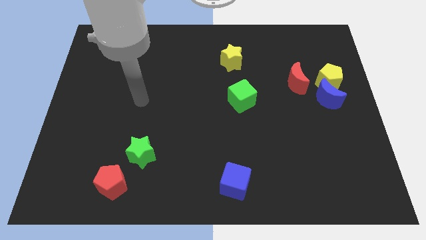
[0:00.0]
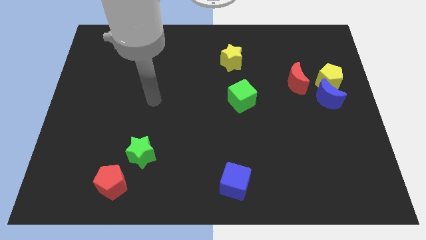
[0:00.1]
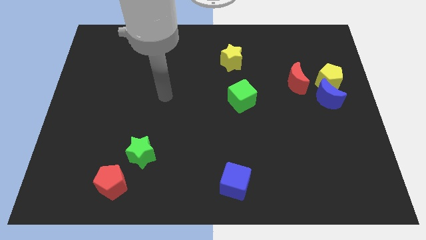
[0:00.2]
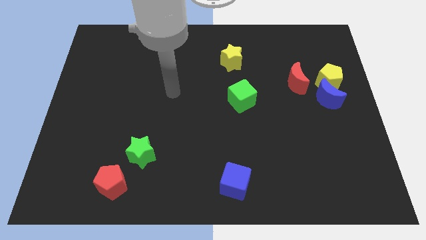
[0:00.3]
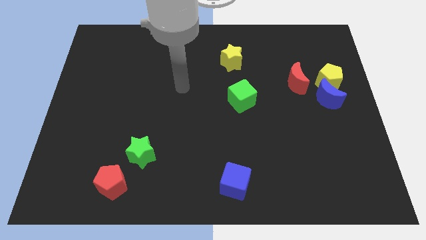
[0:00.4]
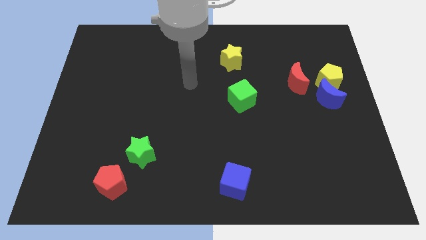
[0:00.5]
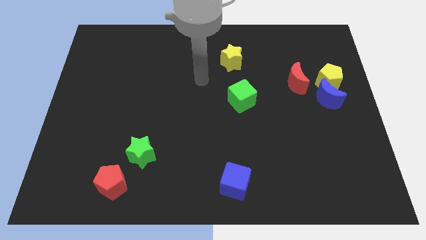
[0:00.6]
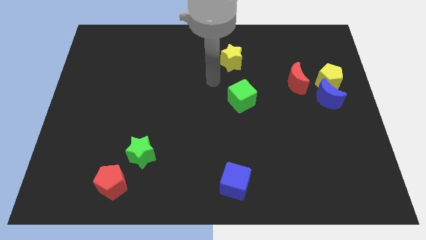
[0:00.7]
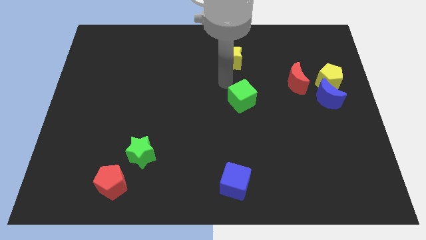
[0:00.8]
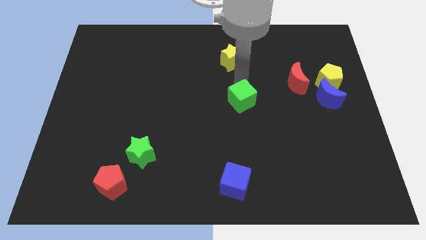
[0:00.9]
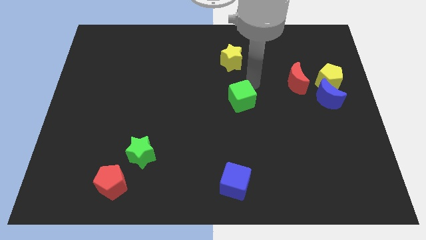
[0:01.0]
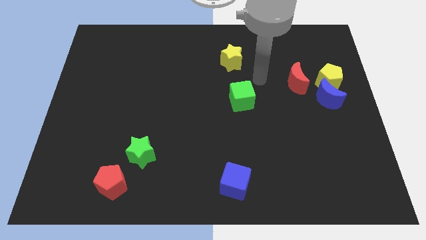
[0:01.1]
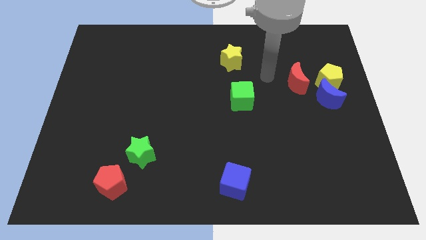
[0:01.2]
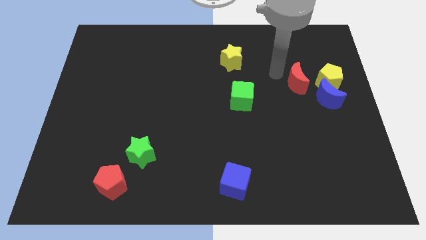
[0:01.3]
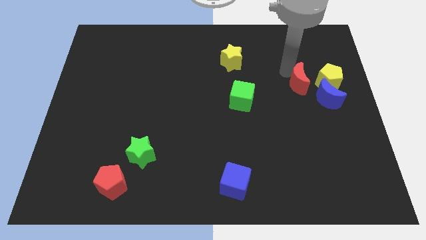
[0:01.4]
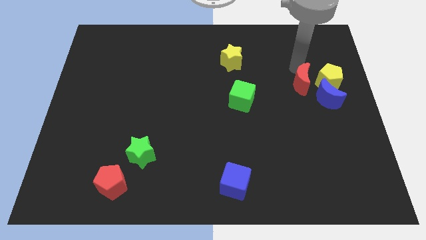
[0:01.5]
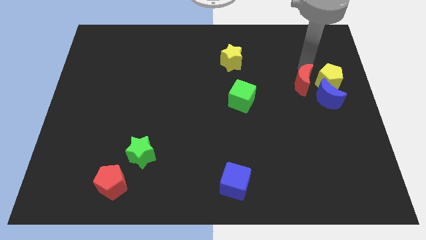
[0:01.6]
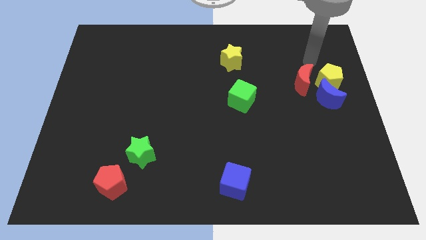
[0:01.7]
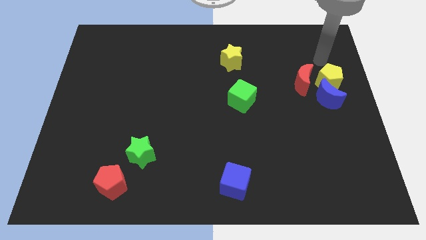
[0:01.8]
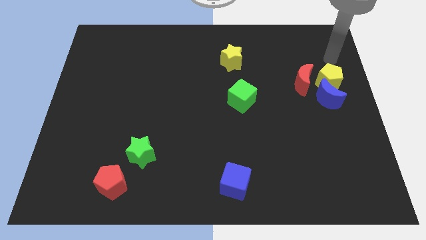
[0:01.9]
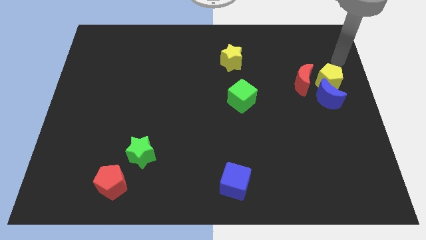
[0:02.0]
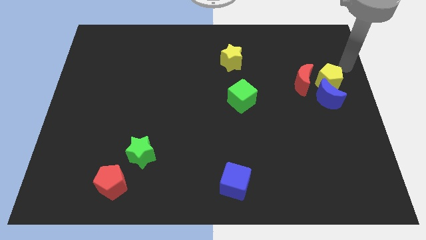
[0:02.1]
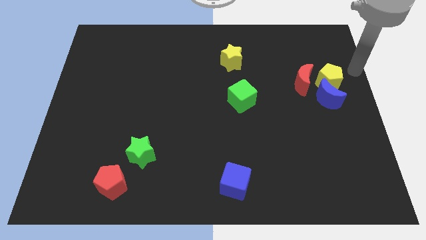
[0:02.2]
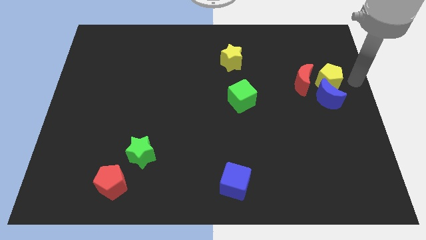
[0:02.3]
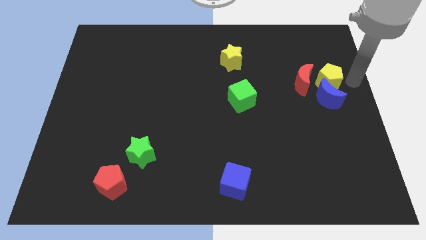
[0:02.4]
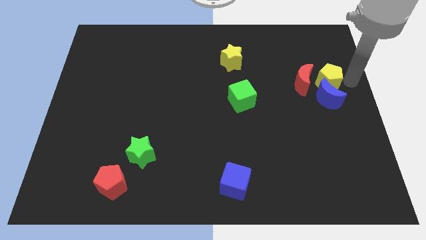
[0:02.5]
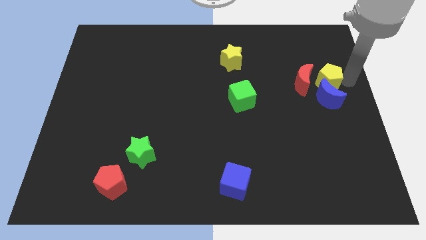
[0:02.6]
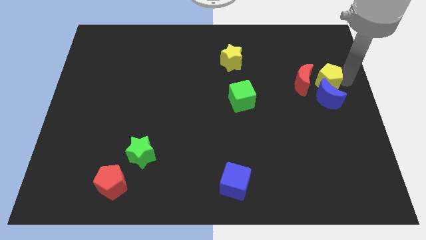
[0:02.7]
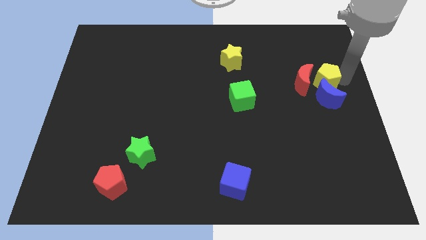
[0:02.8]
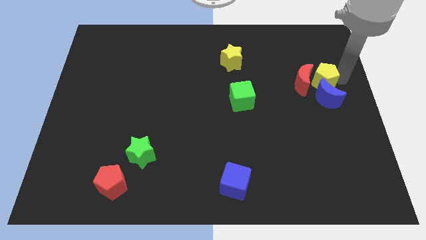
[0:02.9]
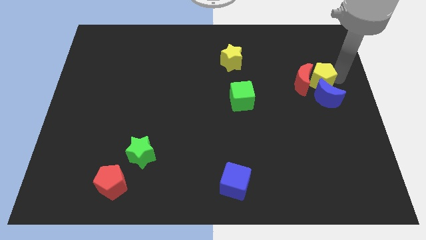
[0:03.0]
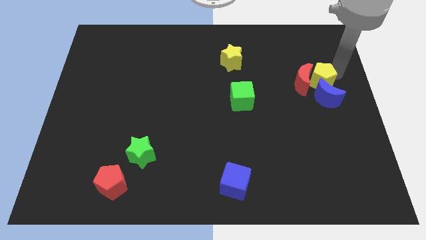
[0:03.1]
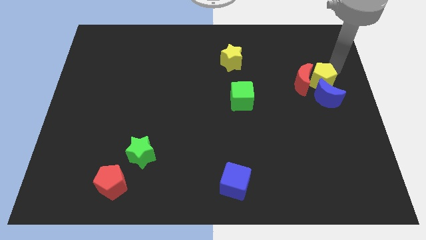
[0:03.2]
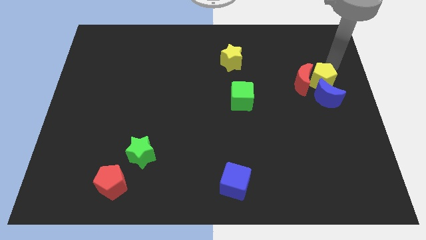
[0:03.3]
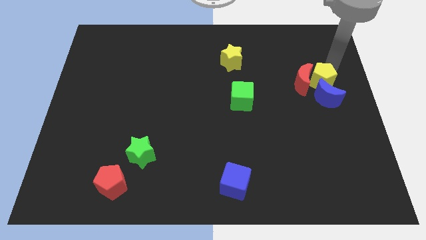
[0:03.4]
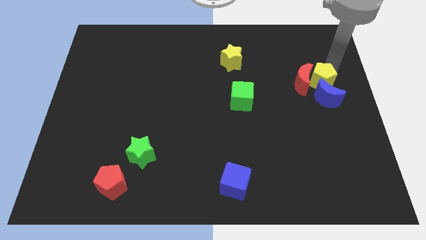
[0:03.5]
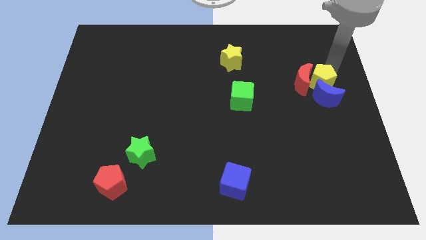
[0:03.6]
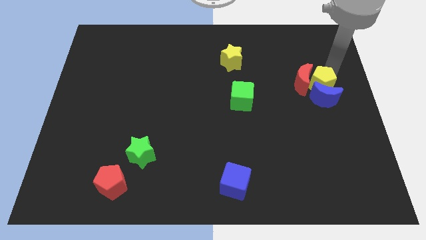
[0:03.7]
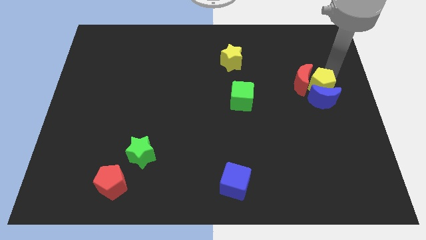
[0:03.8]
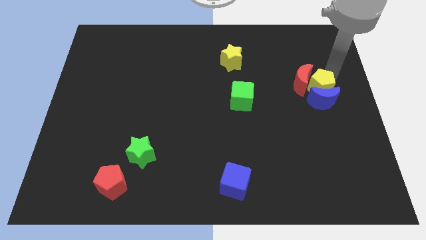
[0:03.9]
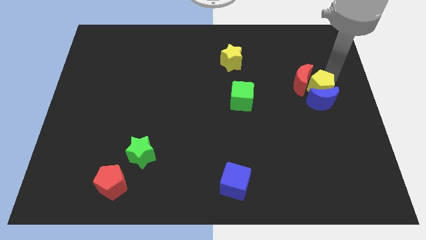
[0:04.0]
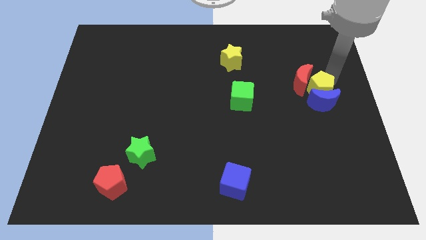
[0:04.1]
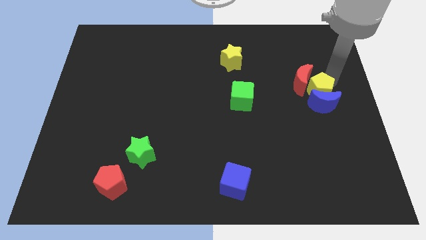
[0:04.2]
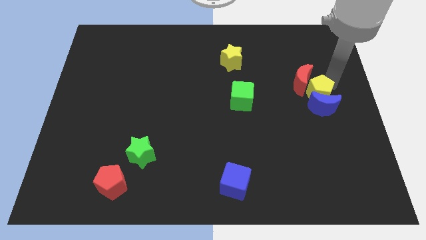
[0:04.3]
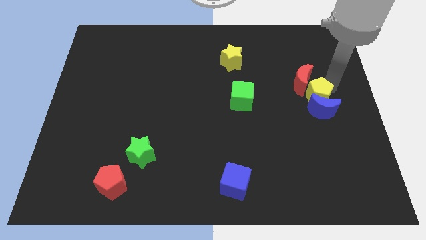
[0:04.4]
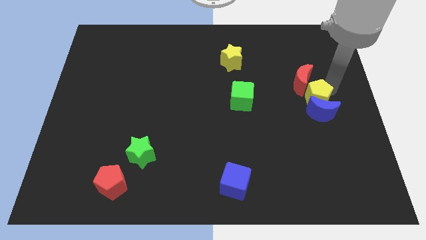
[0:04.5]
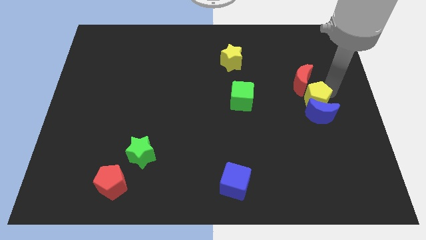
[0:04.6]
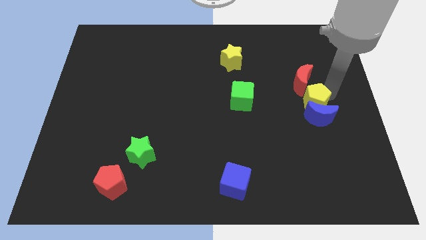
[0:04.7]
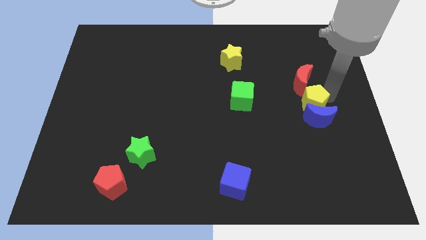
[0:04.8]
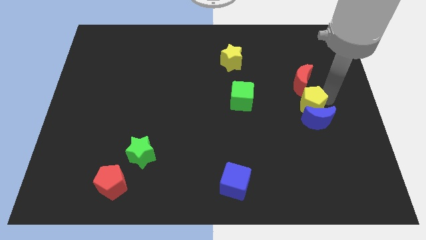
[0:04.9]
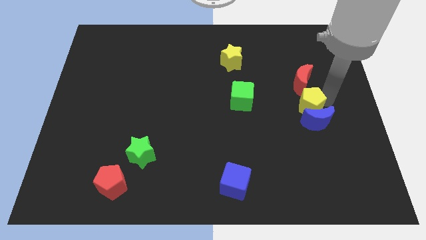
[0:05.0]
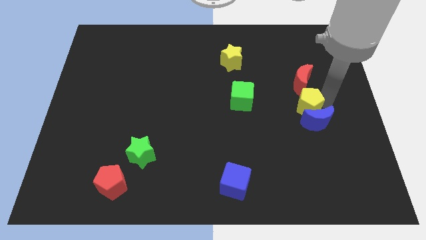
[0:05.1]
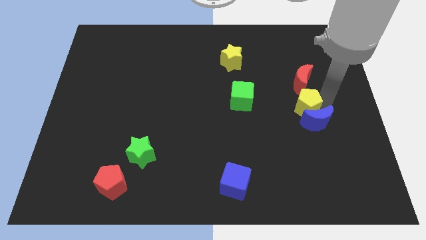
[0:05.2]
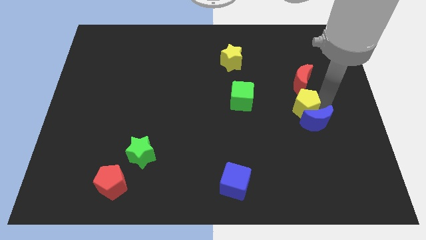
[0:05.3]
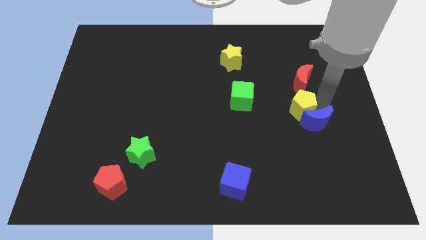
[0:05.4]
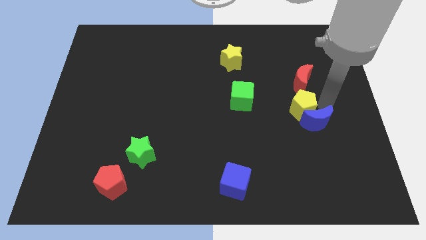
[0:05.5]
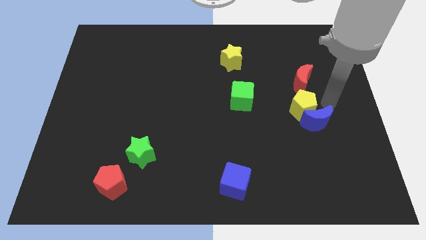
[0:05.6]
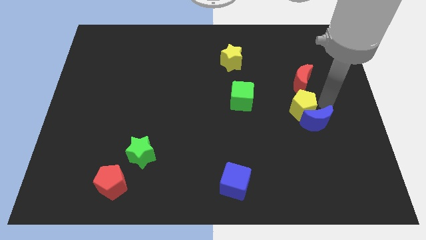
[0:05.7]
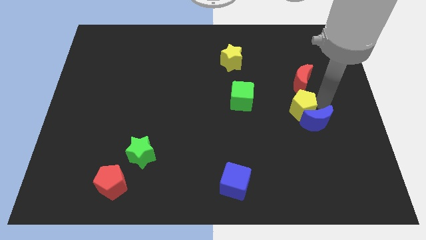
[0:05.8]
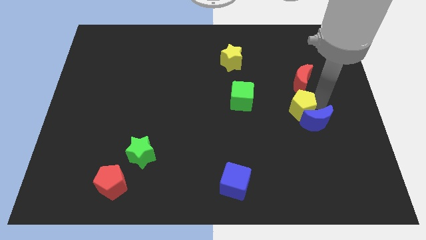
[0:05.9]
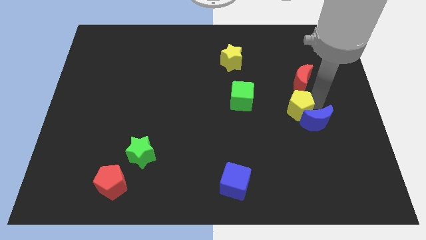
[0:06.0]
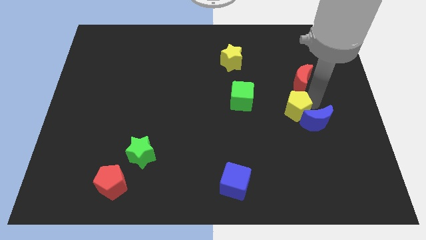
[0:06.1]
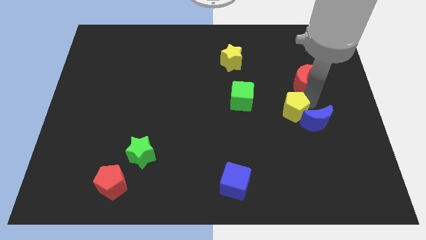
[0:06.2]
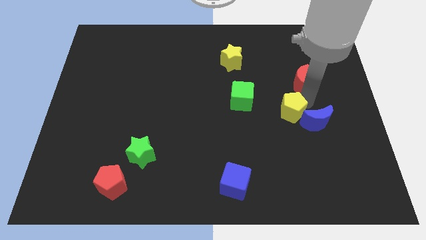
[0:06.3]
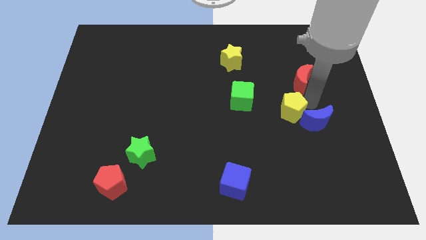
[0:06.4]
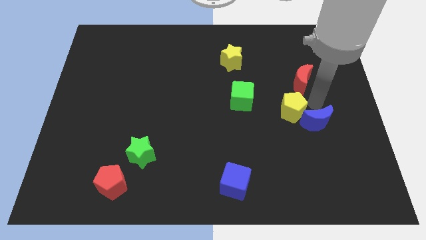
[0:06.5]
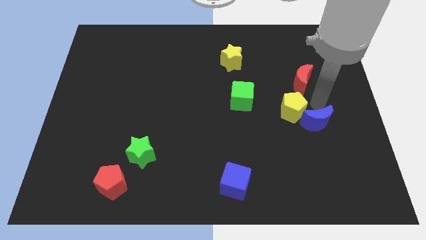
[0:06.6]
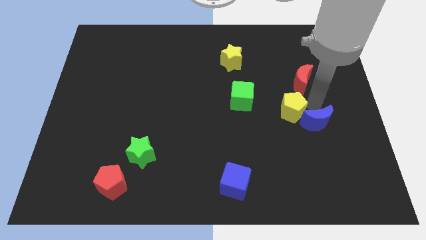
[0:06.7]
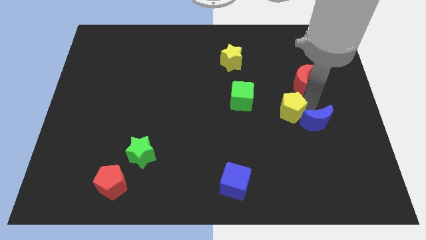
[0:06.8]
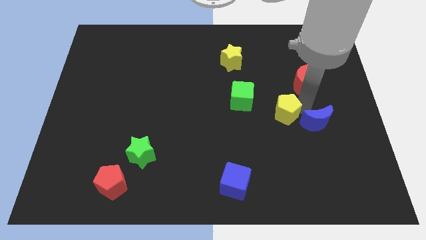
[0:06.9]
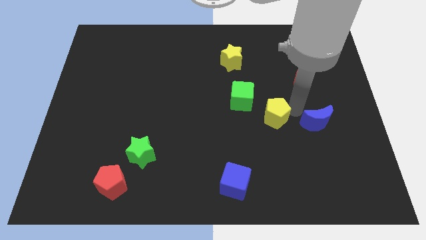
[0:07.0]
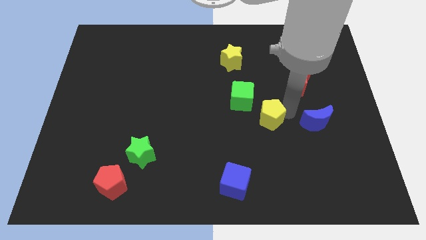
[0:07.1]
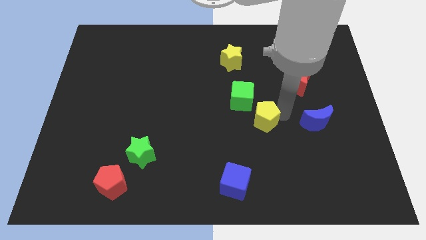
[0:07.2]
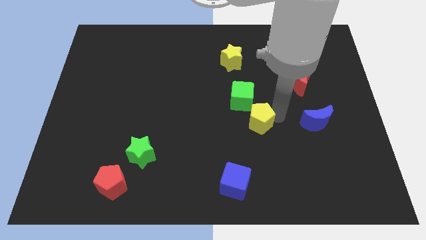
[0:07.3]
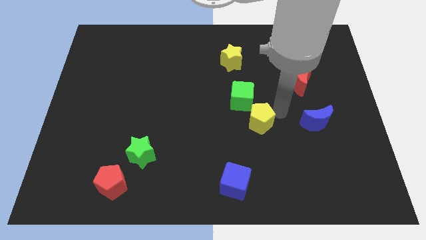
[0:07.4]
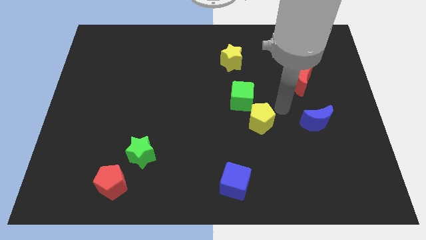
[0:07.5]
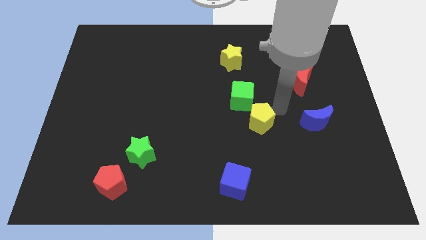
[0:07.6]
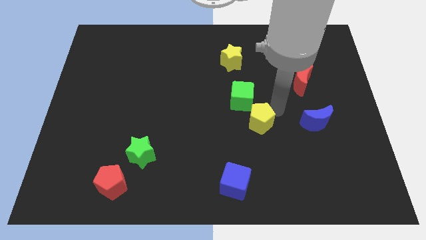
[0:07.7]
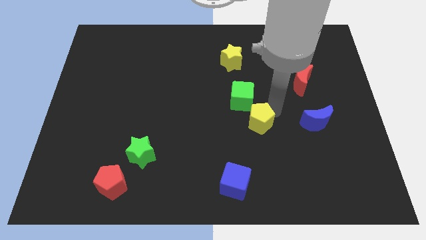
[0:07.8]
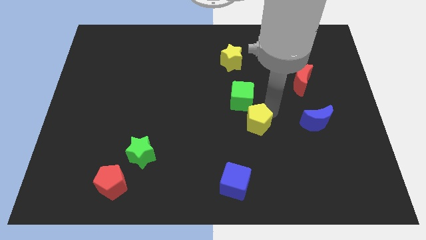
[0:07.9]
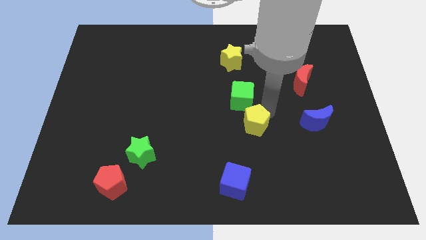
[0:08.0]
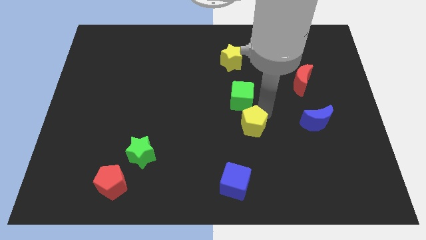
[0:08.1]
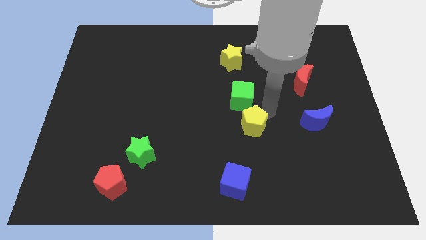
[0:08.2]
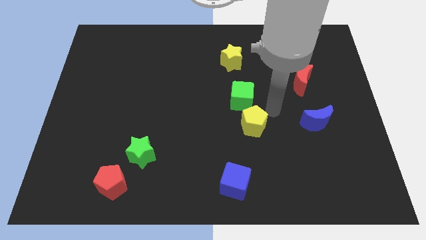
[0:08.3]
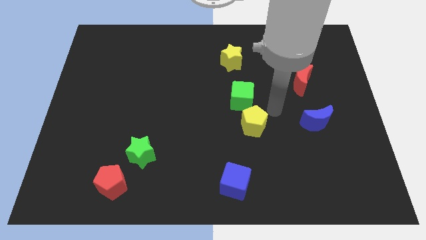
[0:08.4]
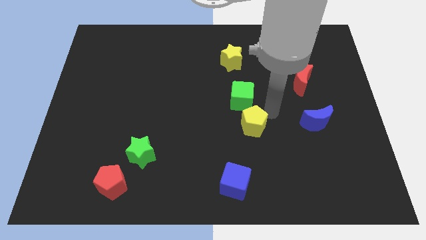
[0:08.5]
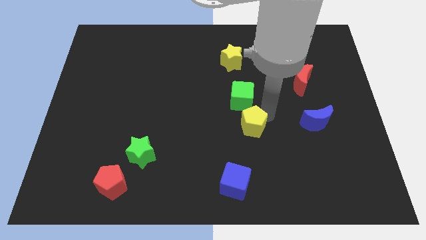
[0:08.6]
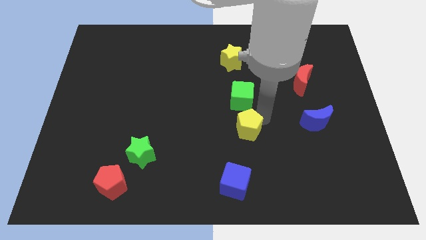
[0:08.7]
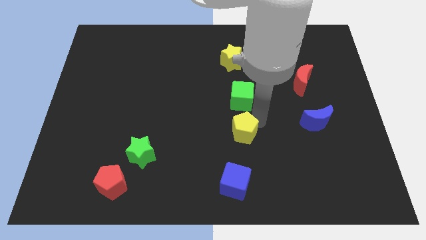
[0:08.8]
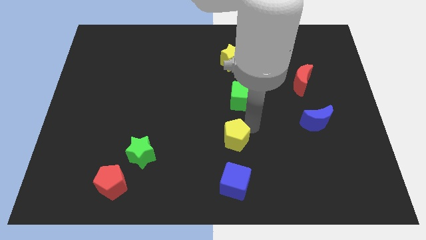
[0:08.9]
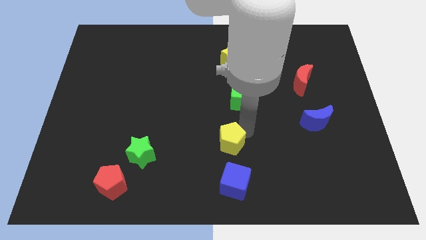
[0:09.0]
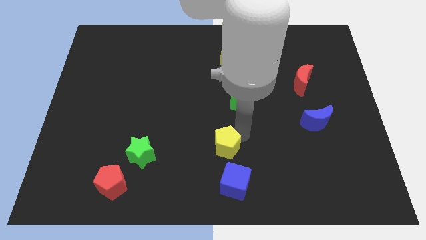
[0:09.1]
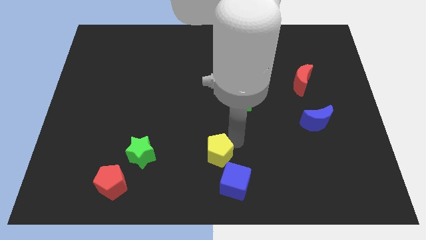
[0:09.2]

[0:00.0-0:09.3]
put the yellow pentagon just right of the green star
